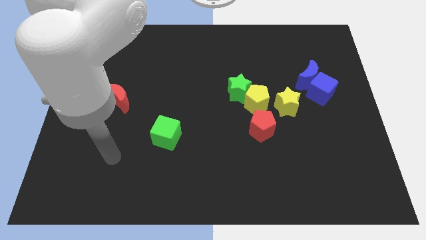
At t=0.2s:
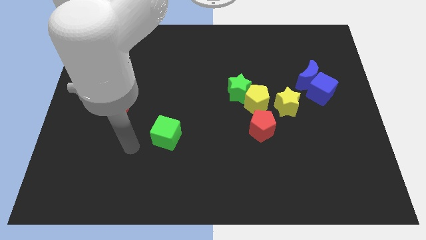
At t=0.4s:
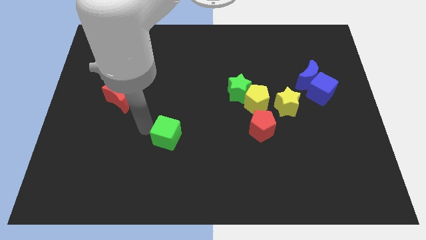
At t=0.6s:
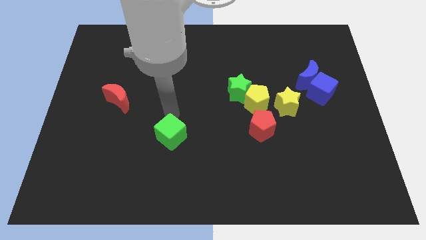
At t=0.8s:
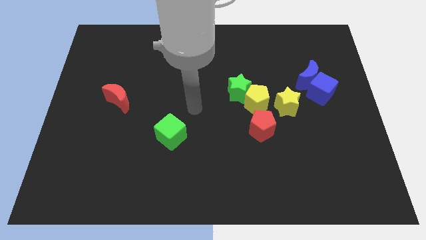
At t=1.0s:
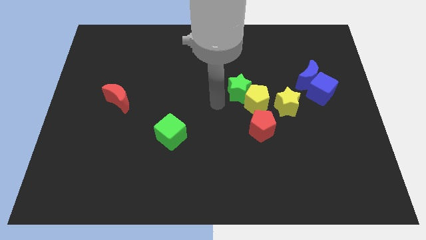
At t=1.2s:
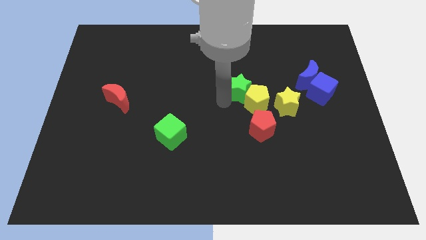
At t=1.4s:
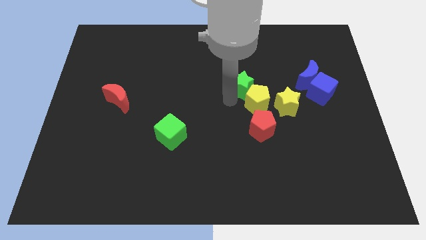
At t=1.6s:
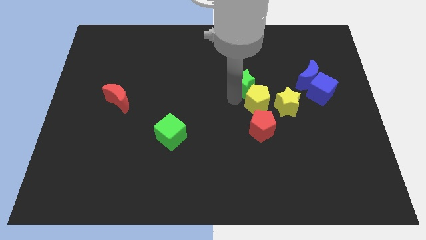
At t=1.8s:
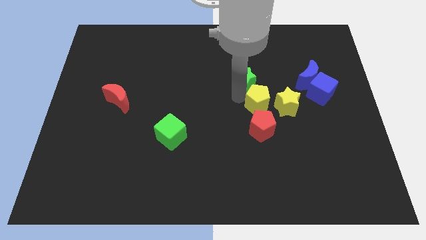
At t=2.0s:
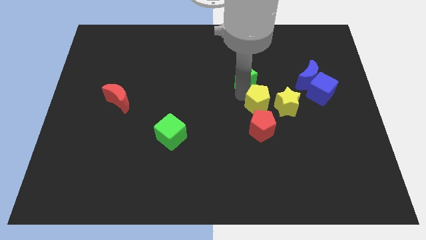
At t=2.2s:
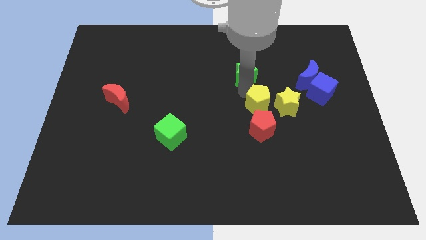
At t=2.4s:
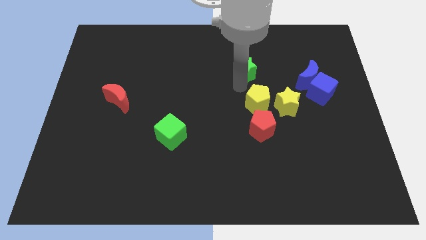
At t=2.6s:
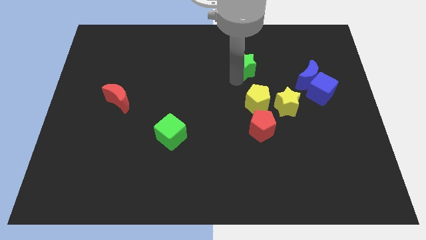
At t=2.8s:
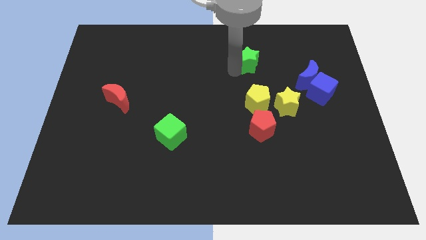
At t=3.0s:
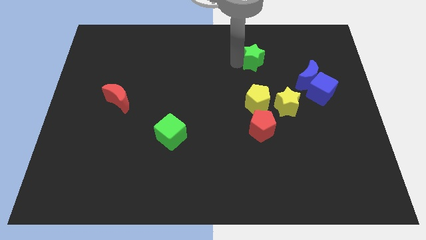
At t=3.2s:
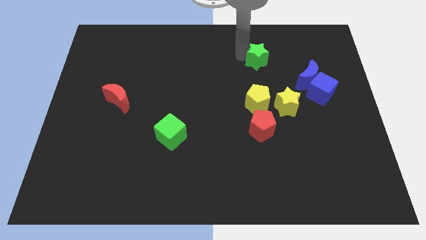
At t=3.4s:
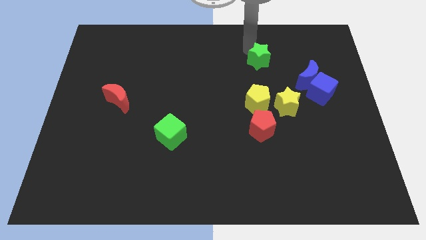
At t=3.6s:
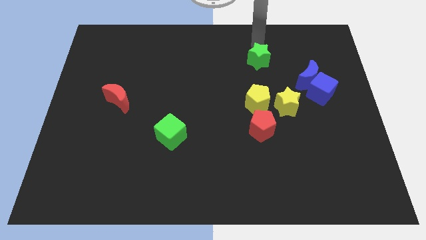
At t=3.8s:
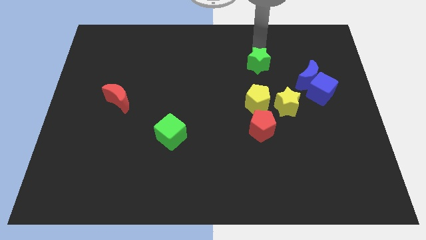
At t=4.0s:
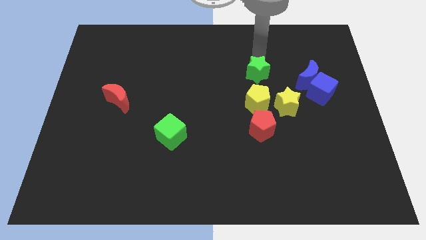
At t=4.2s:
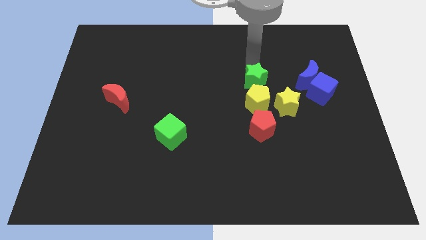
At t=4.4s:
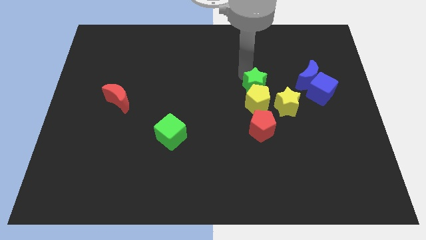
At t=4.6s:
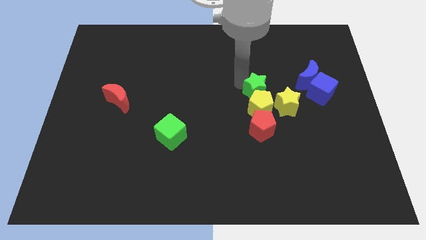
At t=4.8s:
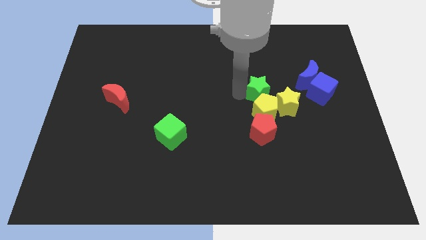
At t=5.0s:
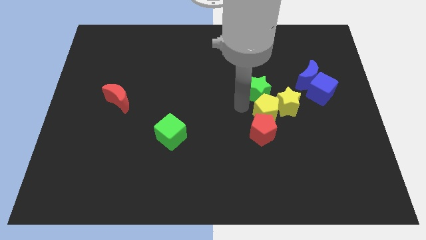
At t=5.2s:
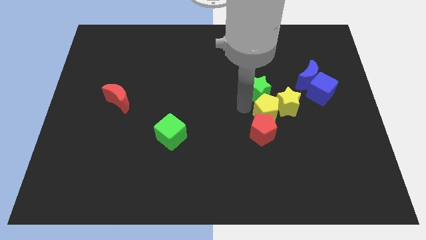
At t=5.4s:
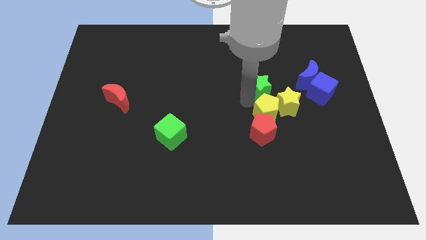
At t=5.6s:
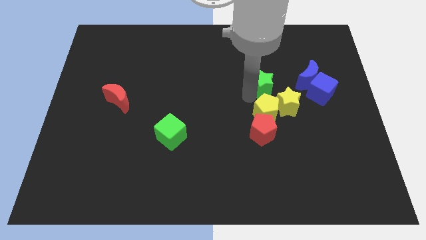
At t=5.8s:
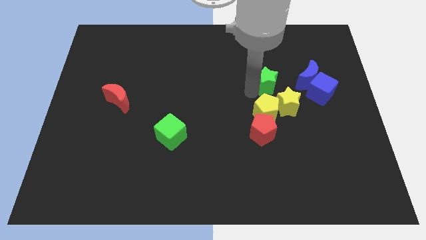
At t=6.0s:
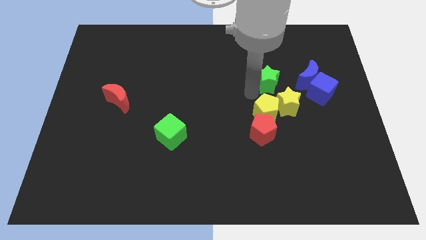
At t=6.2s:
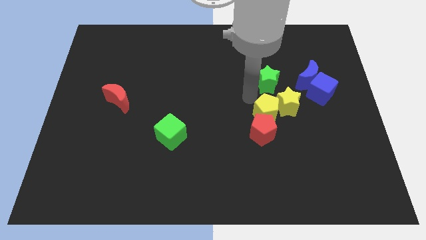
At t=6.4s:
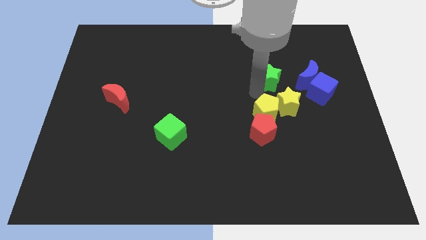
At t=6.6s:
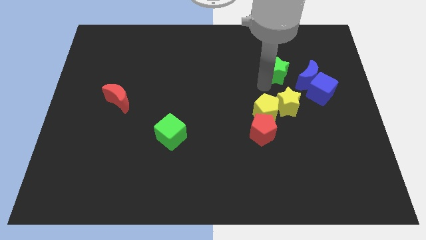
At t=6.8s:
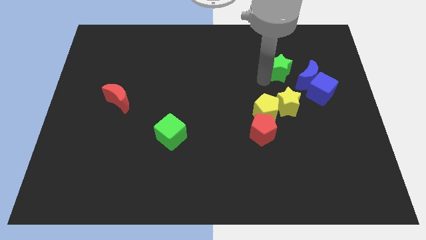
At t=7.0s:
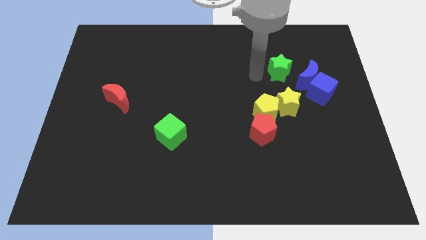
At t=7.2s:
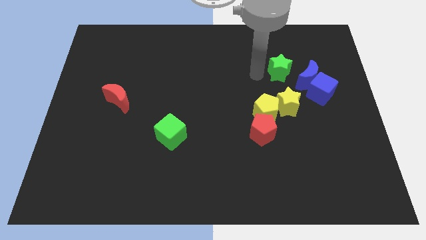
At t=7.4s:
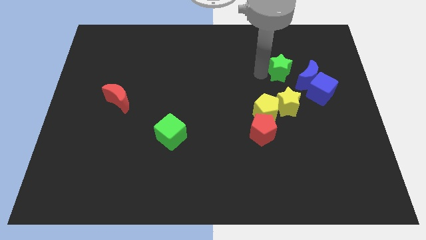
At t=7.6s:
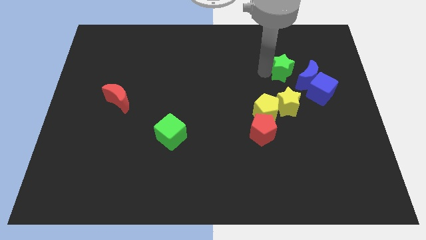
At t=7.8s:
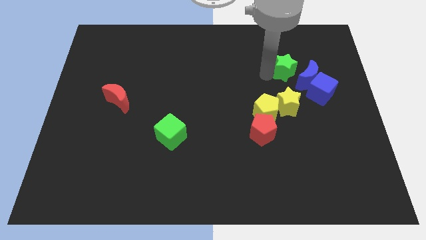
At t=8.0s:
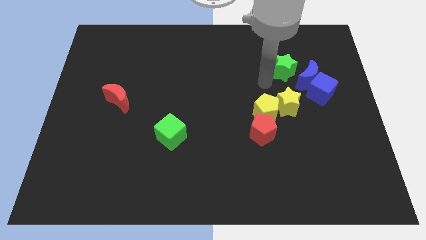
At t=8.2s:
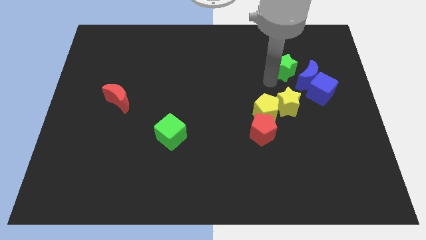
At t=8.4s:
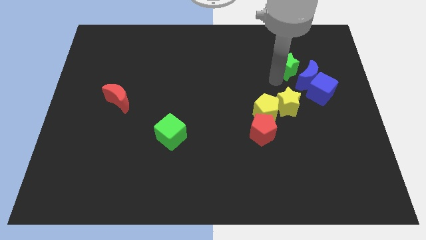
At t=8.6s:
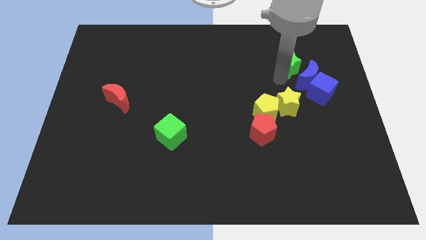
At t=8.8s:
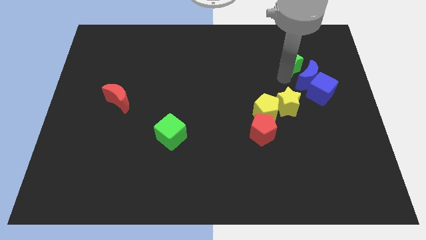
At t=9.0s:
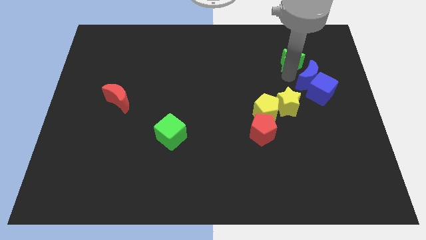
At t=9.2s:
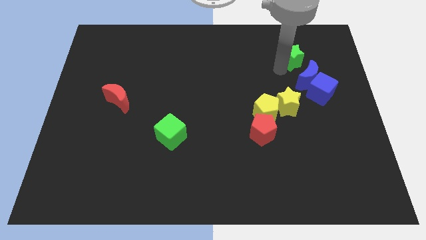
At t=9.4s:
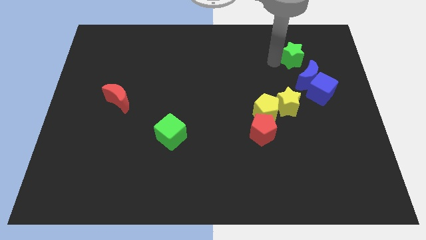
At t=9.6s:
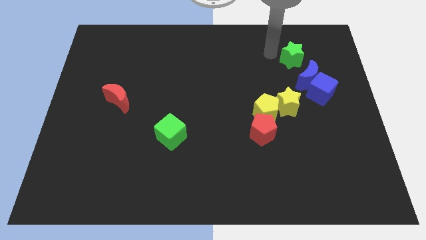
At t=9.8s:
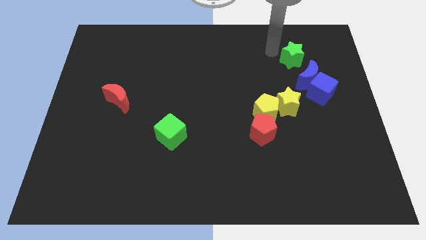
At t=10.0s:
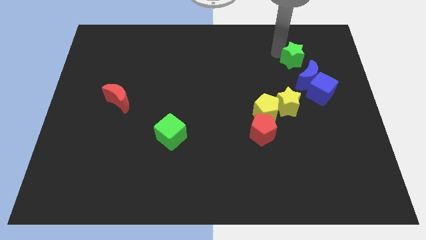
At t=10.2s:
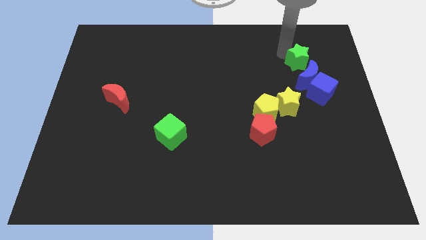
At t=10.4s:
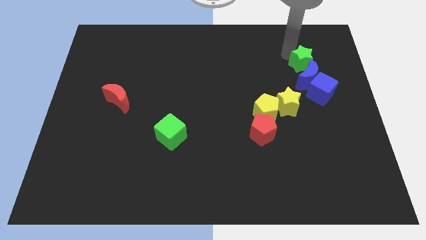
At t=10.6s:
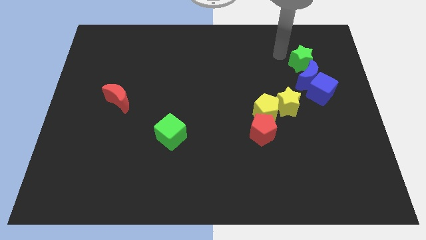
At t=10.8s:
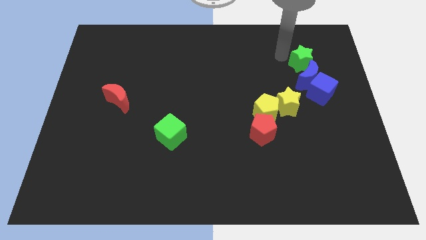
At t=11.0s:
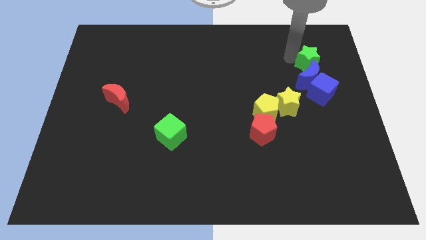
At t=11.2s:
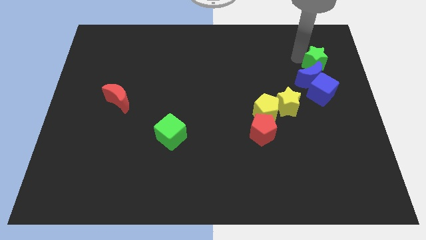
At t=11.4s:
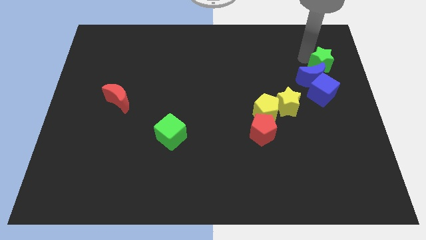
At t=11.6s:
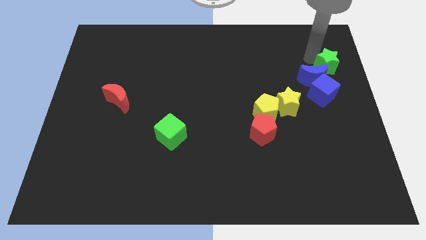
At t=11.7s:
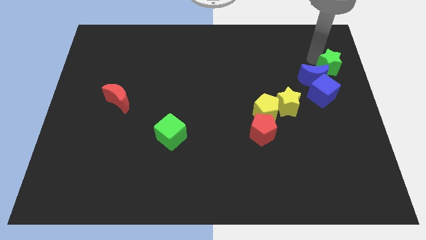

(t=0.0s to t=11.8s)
put the green star to the right side of the board

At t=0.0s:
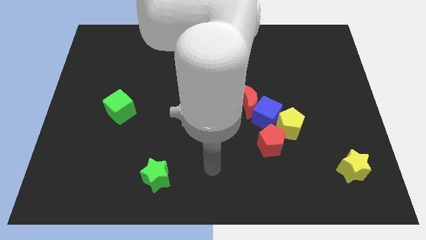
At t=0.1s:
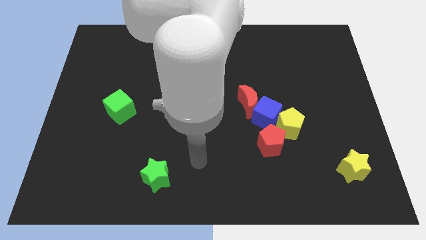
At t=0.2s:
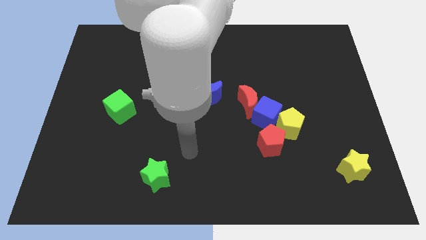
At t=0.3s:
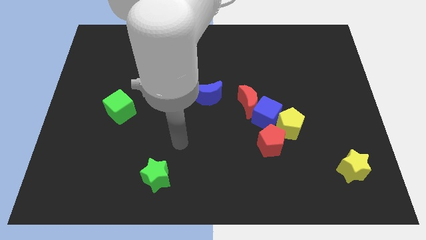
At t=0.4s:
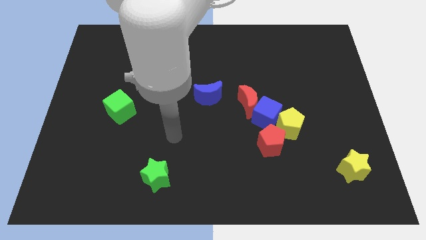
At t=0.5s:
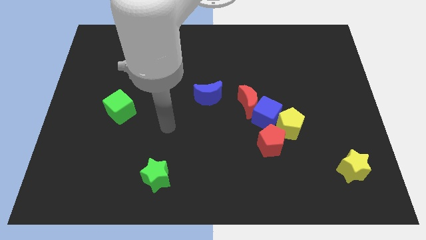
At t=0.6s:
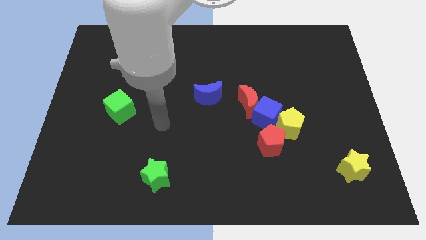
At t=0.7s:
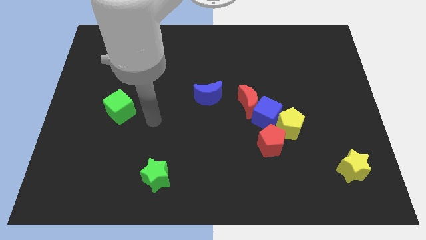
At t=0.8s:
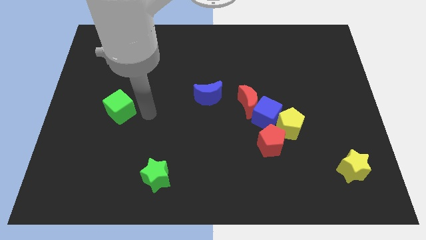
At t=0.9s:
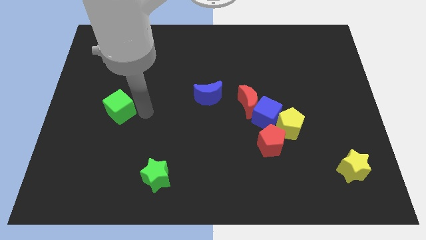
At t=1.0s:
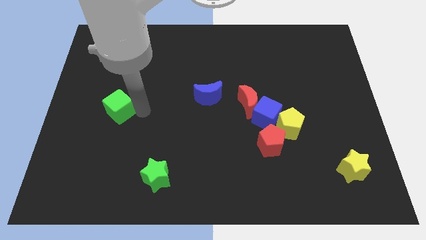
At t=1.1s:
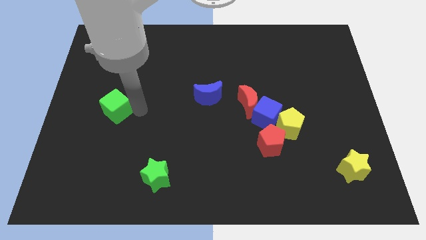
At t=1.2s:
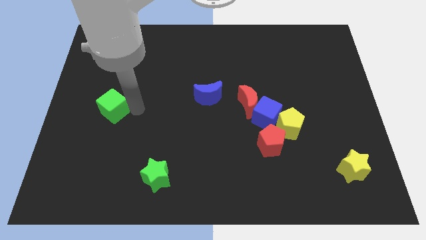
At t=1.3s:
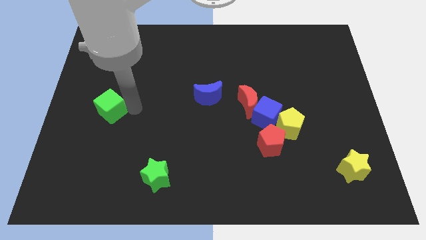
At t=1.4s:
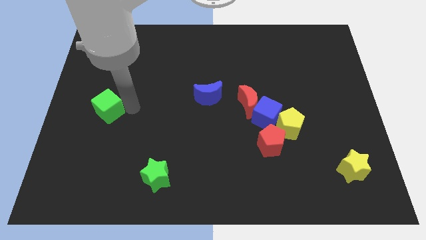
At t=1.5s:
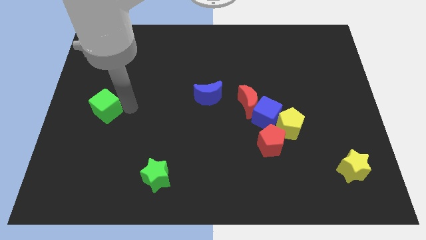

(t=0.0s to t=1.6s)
slide the green cube to the center left
